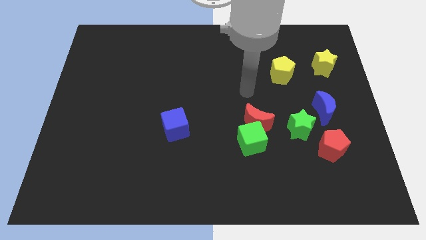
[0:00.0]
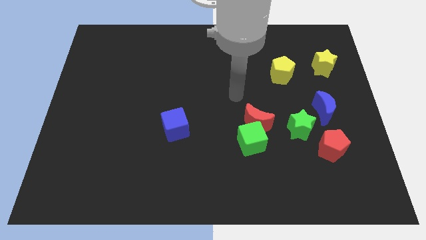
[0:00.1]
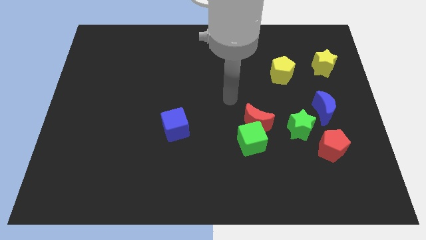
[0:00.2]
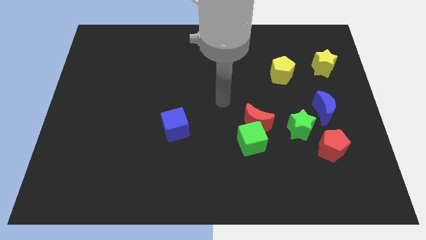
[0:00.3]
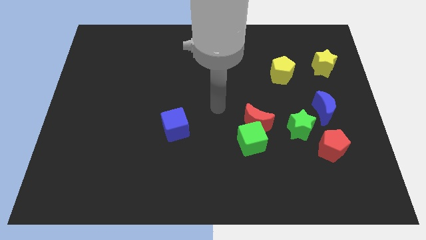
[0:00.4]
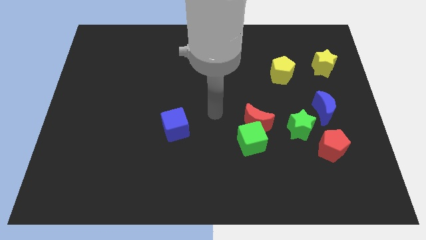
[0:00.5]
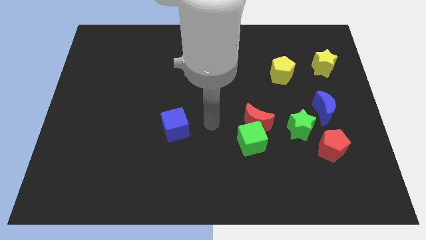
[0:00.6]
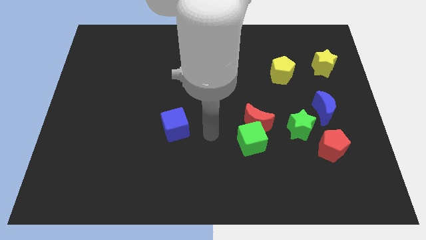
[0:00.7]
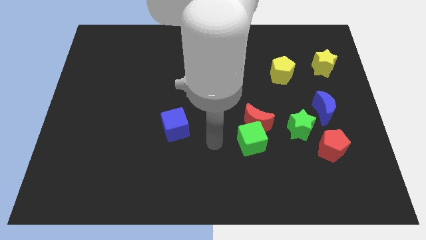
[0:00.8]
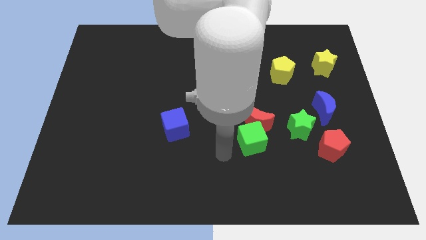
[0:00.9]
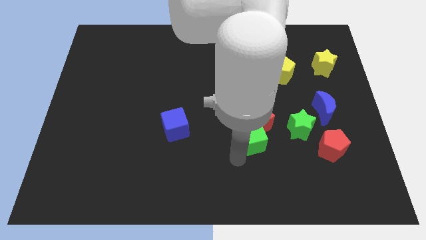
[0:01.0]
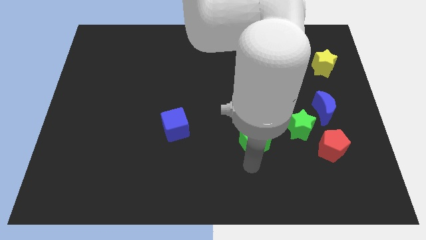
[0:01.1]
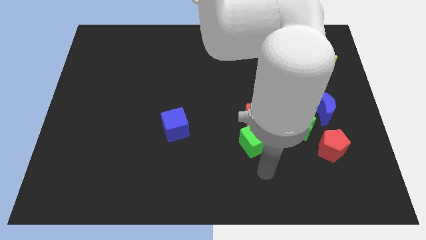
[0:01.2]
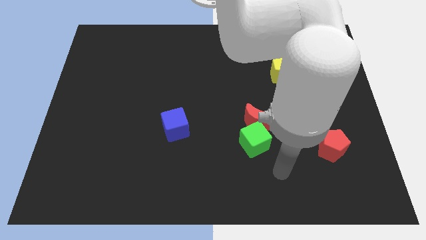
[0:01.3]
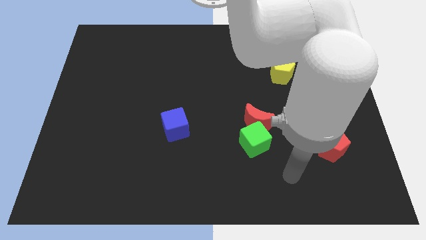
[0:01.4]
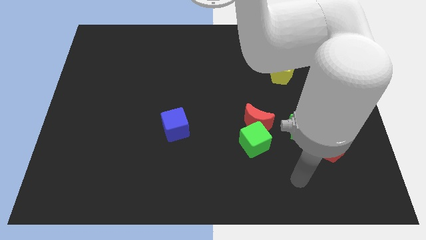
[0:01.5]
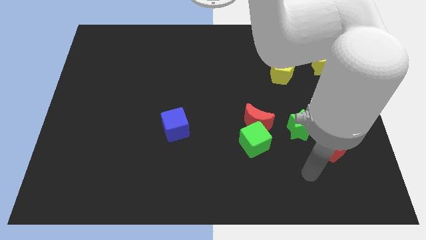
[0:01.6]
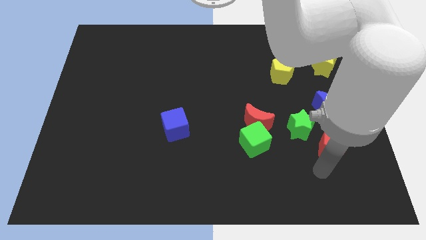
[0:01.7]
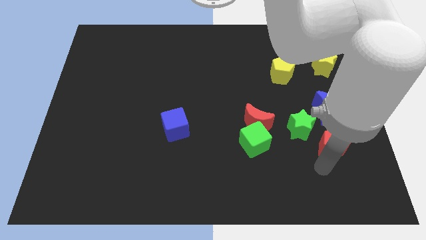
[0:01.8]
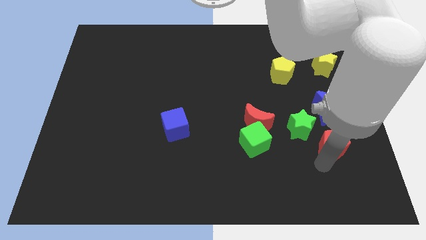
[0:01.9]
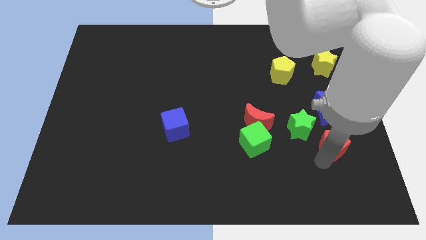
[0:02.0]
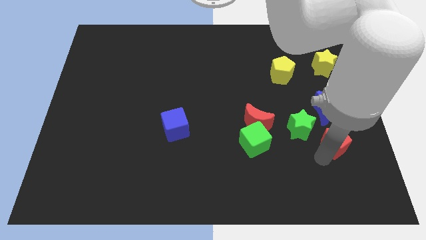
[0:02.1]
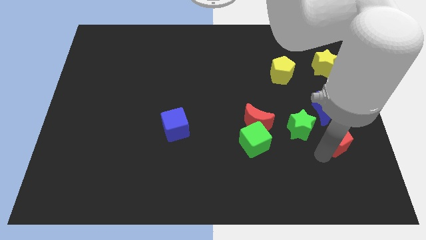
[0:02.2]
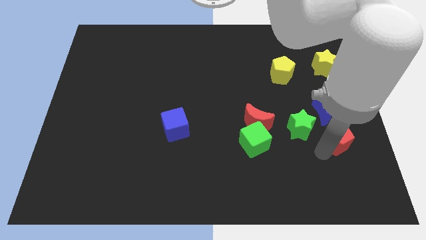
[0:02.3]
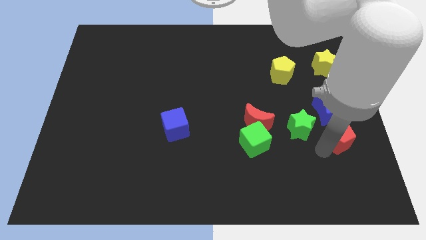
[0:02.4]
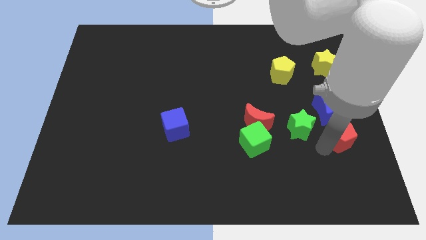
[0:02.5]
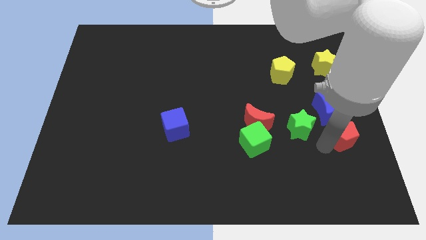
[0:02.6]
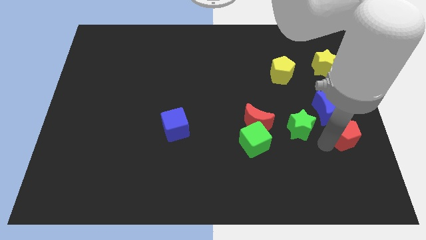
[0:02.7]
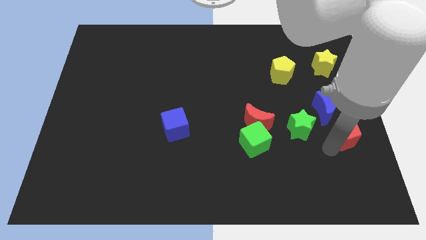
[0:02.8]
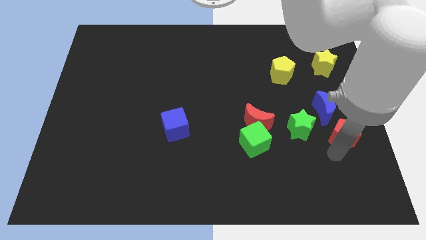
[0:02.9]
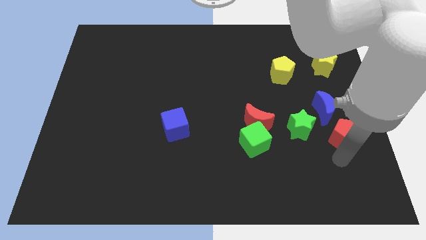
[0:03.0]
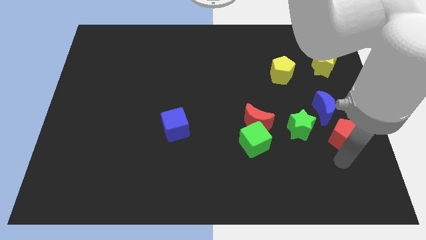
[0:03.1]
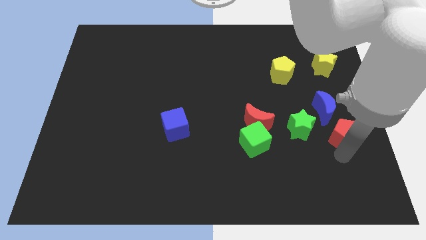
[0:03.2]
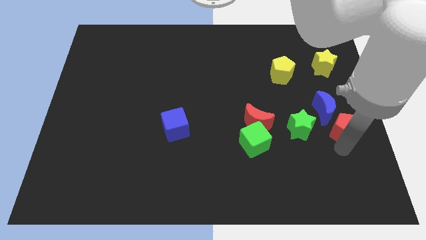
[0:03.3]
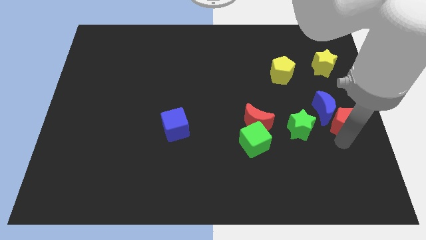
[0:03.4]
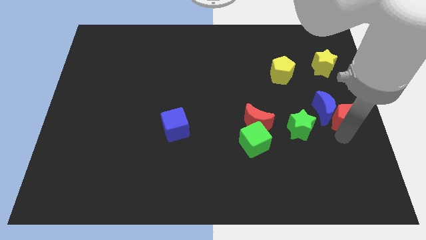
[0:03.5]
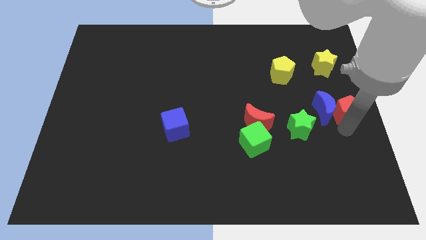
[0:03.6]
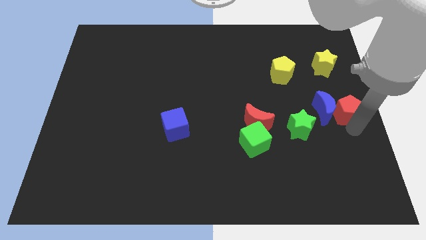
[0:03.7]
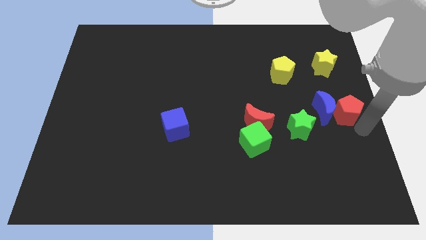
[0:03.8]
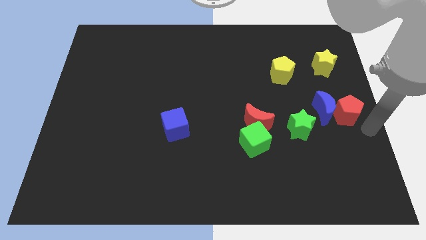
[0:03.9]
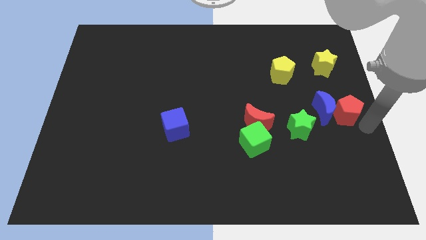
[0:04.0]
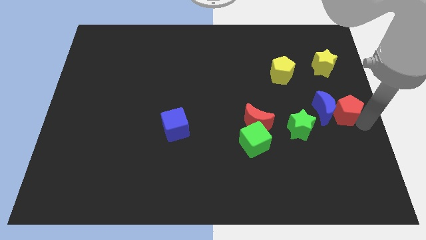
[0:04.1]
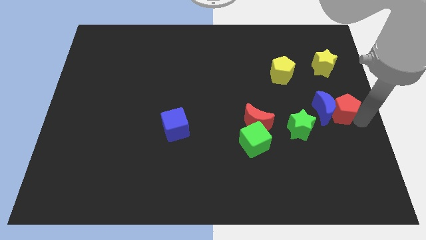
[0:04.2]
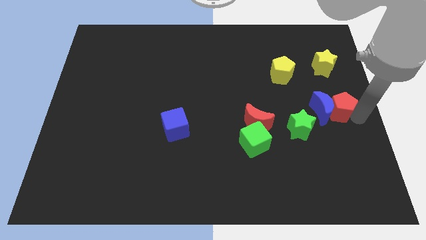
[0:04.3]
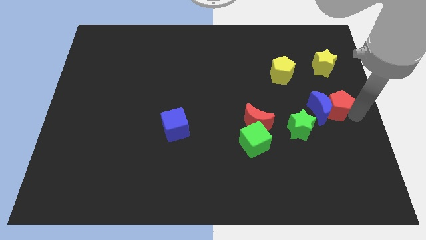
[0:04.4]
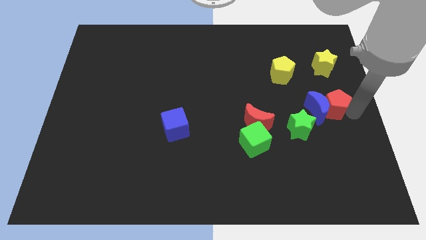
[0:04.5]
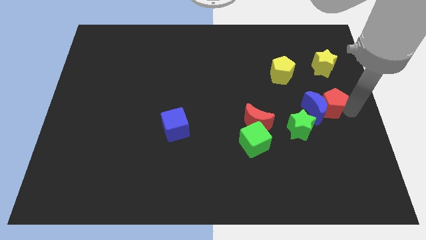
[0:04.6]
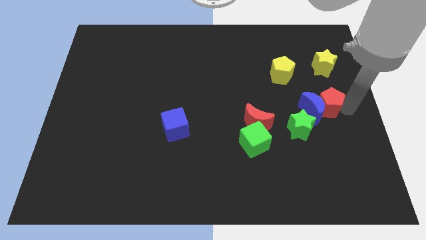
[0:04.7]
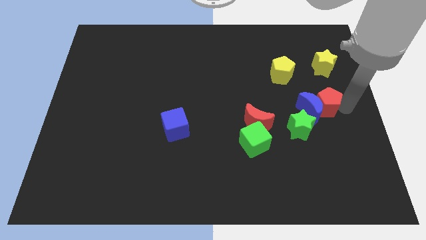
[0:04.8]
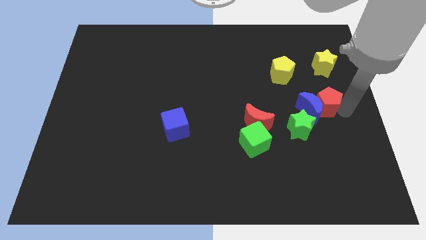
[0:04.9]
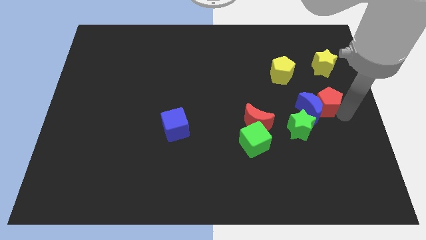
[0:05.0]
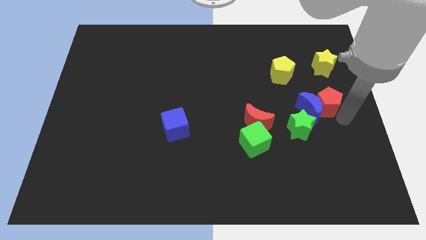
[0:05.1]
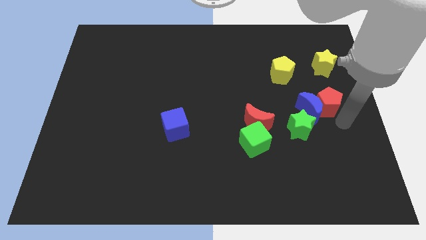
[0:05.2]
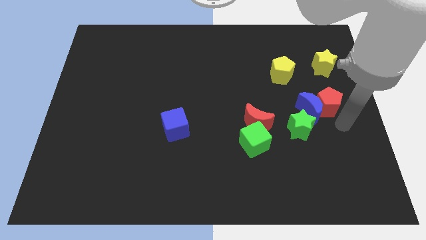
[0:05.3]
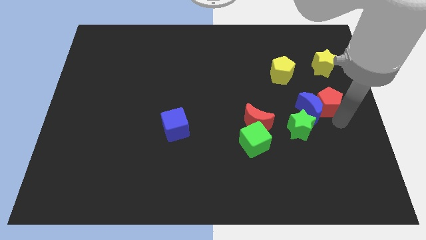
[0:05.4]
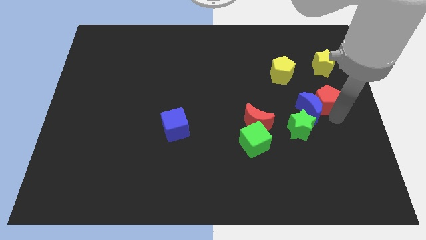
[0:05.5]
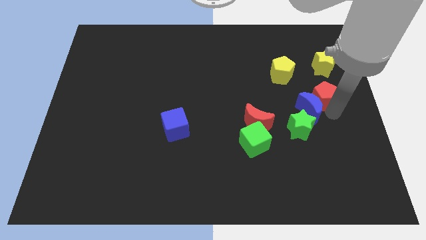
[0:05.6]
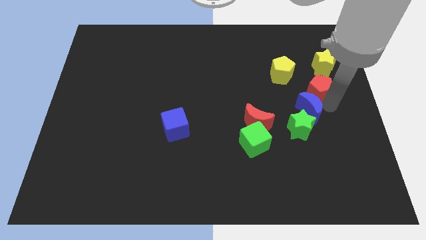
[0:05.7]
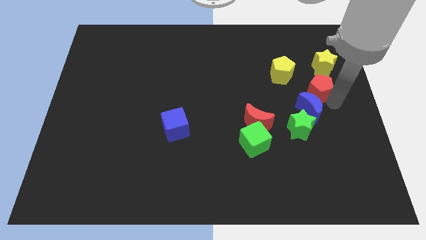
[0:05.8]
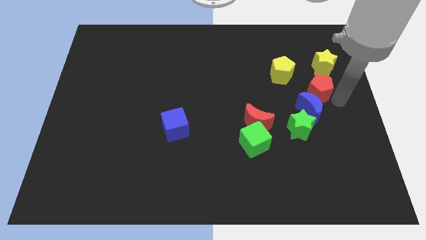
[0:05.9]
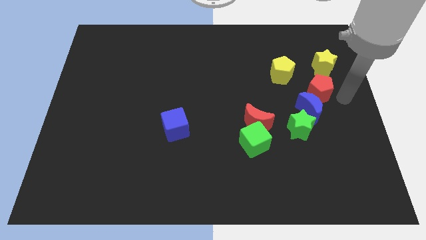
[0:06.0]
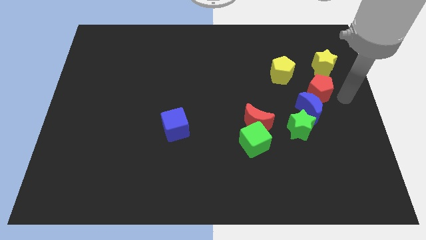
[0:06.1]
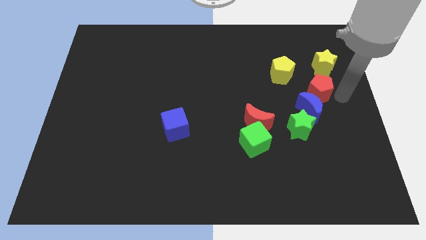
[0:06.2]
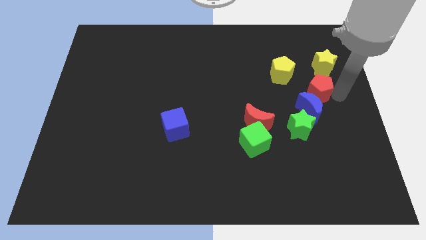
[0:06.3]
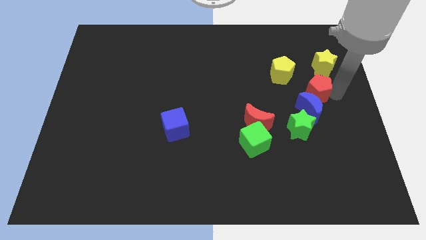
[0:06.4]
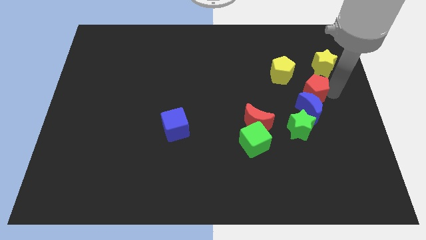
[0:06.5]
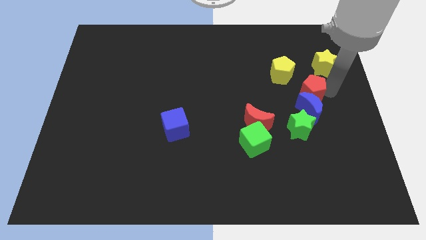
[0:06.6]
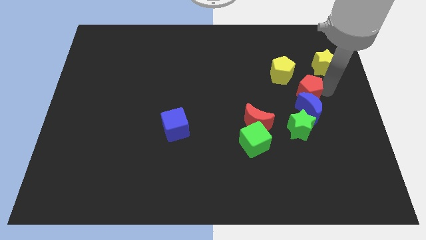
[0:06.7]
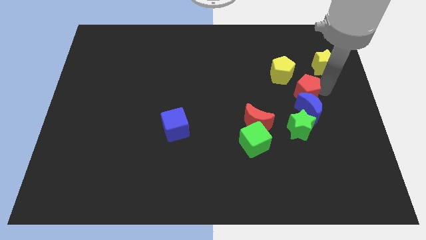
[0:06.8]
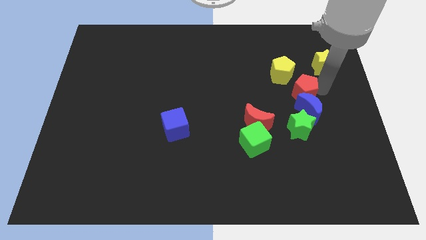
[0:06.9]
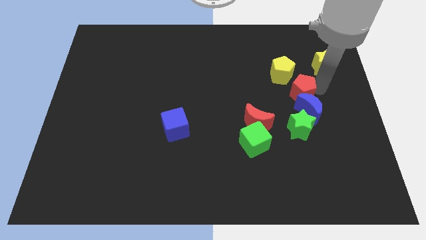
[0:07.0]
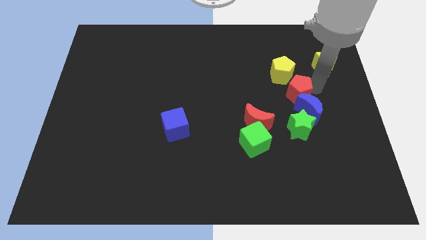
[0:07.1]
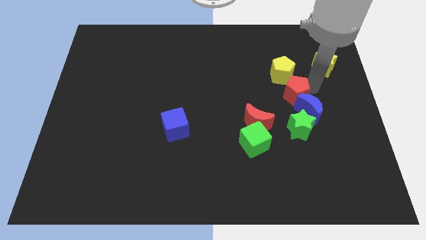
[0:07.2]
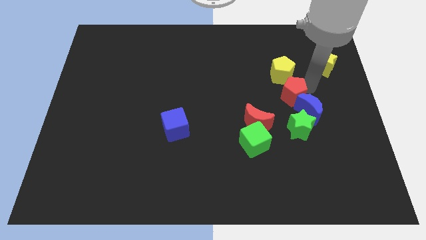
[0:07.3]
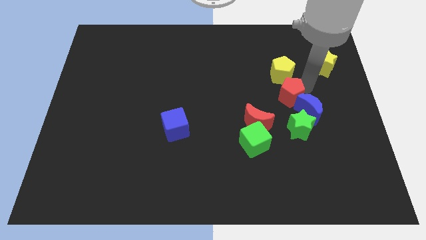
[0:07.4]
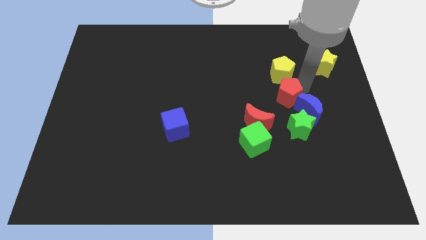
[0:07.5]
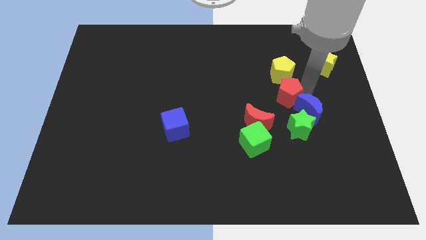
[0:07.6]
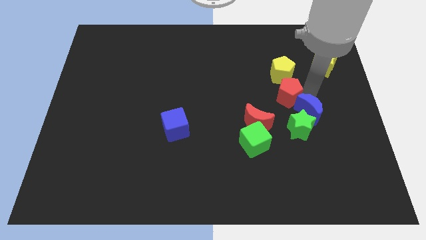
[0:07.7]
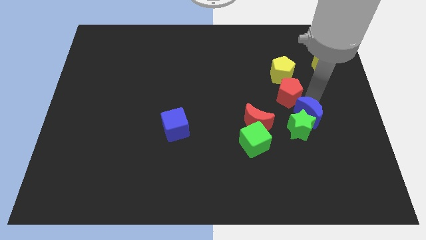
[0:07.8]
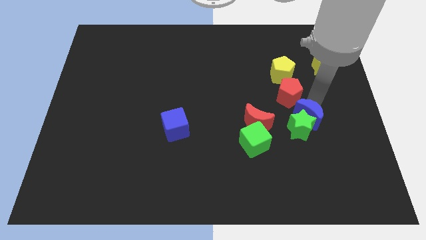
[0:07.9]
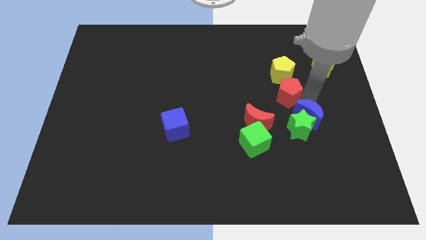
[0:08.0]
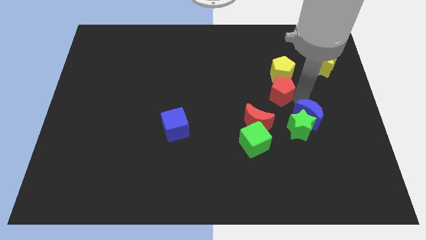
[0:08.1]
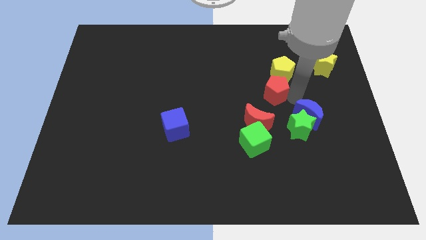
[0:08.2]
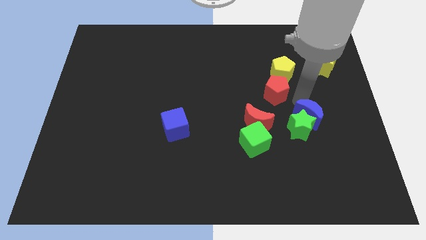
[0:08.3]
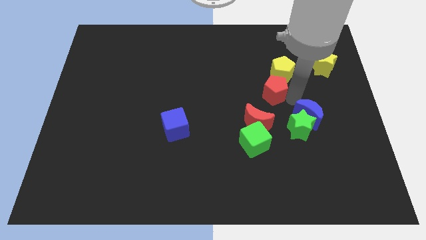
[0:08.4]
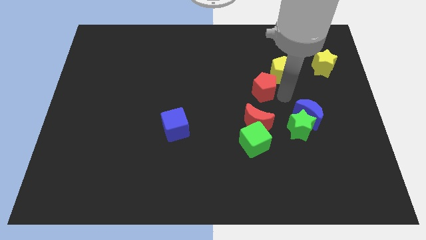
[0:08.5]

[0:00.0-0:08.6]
move the red pentagon upwards and left diagonally
